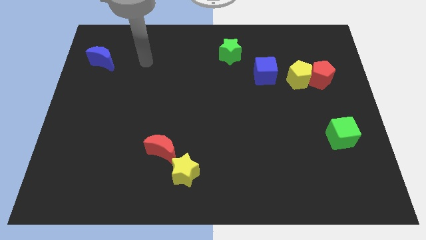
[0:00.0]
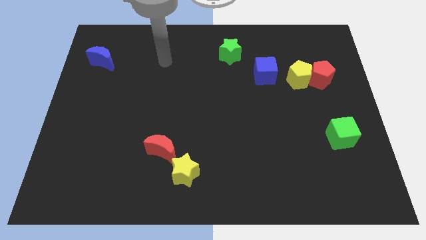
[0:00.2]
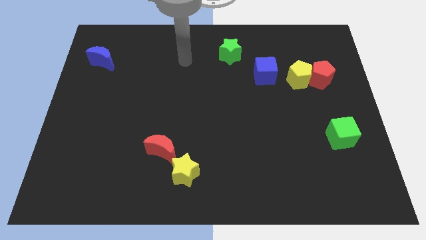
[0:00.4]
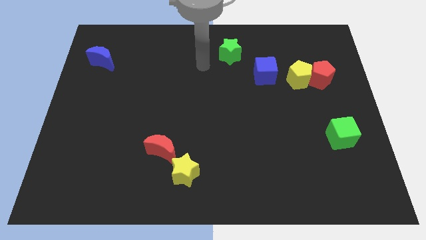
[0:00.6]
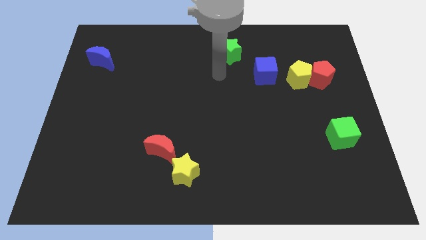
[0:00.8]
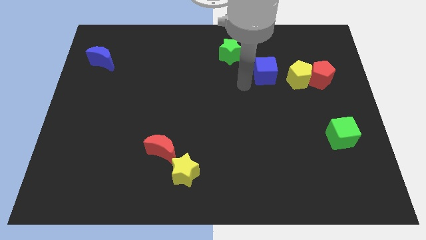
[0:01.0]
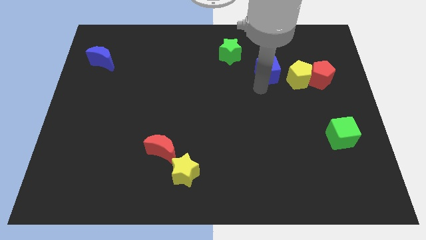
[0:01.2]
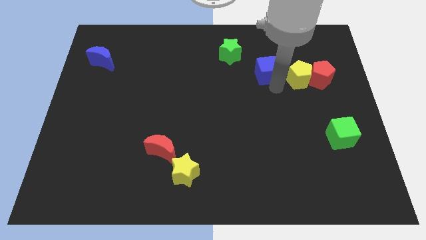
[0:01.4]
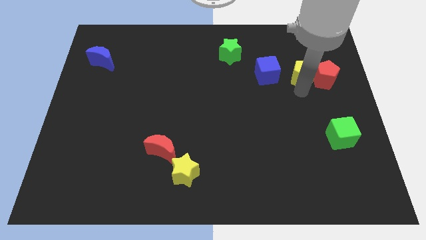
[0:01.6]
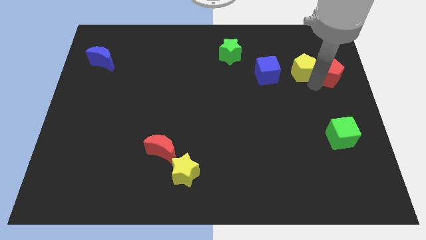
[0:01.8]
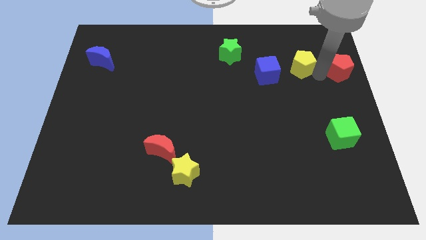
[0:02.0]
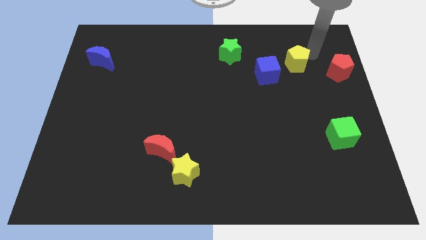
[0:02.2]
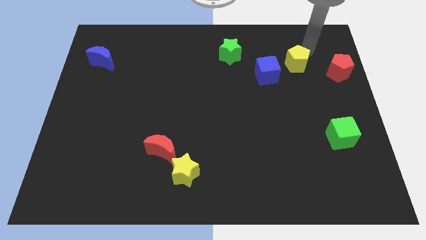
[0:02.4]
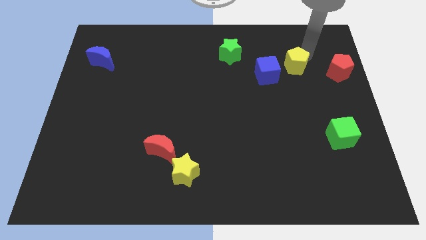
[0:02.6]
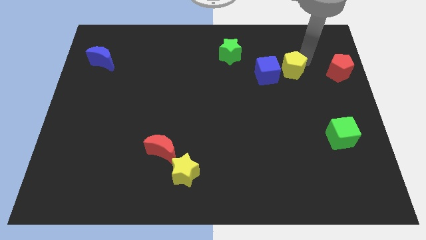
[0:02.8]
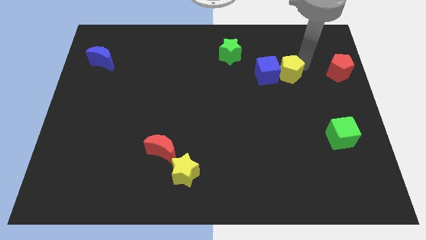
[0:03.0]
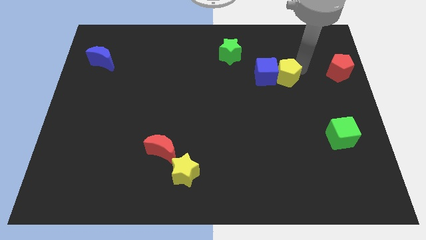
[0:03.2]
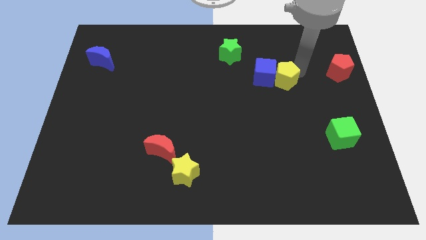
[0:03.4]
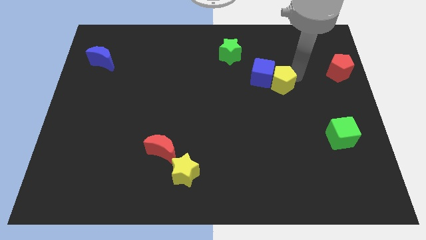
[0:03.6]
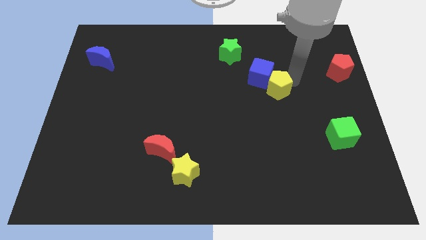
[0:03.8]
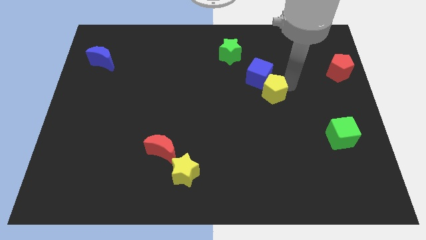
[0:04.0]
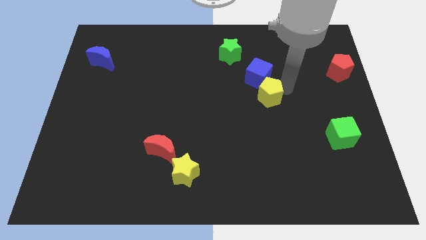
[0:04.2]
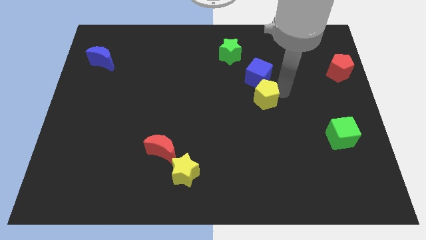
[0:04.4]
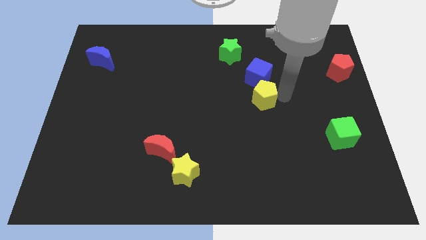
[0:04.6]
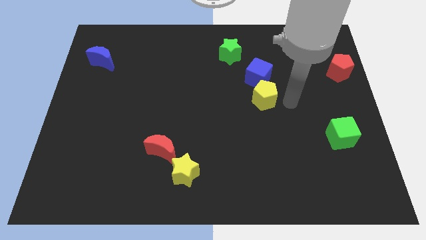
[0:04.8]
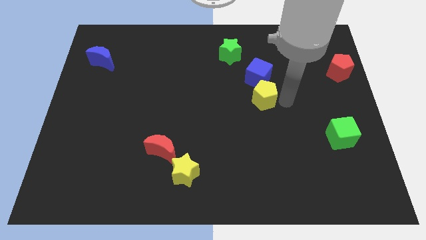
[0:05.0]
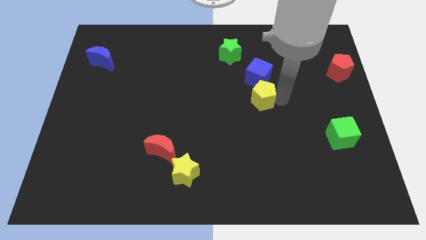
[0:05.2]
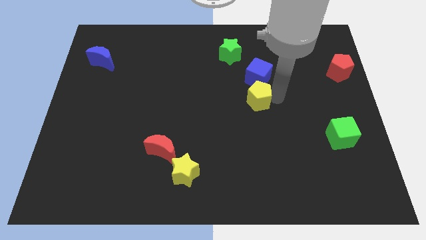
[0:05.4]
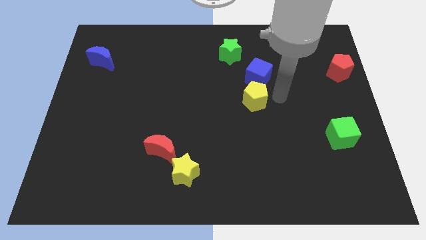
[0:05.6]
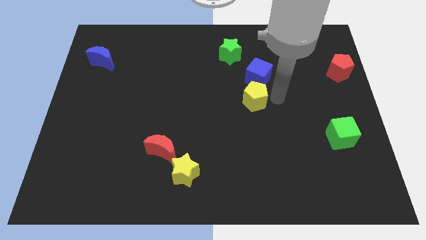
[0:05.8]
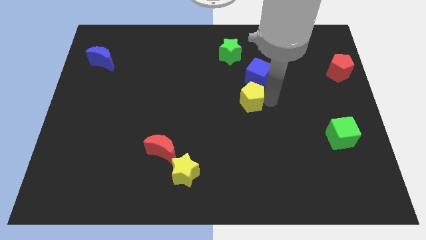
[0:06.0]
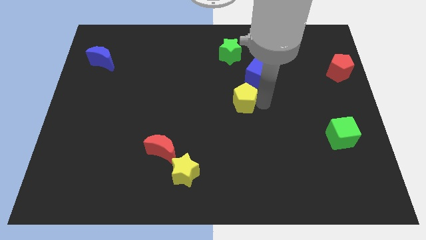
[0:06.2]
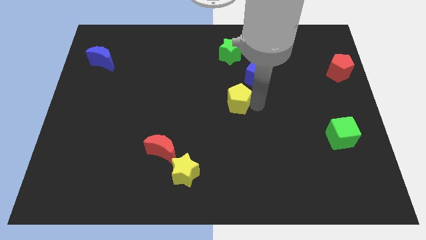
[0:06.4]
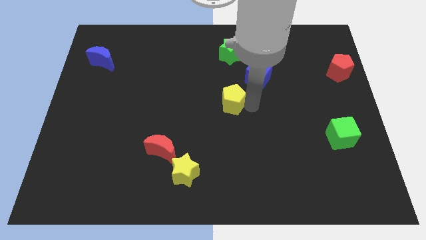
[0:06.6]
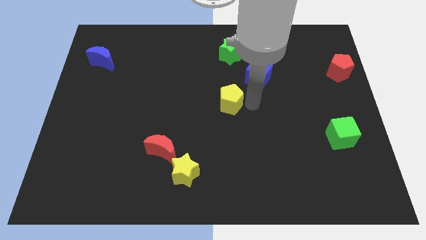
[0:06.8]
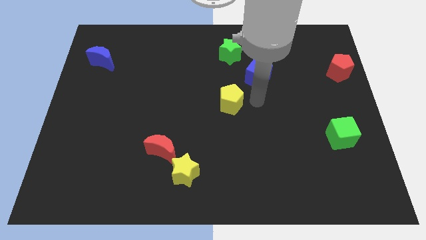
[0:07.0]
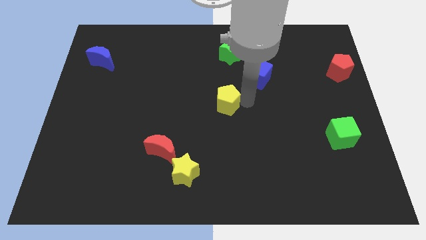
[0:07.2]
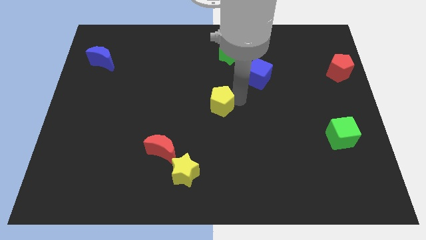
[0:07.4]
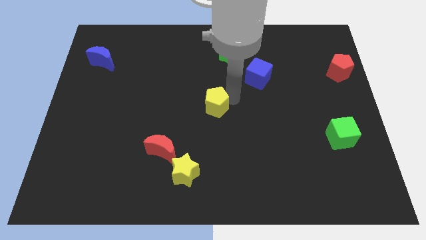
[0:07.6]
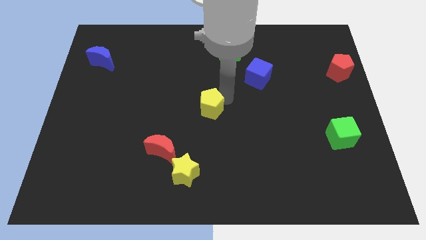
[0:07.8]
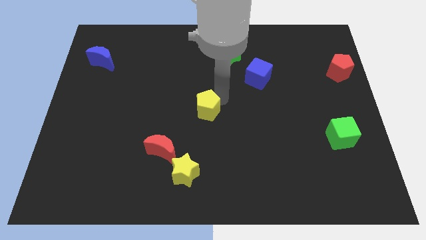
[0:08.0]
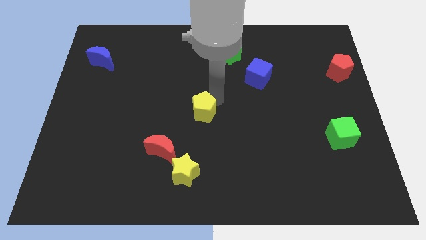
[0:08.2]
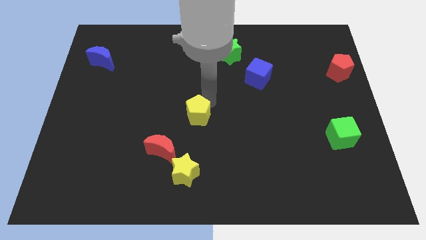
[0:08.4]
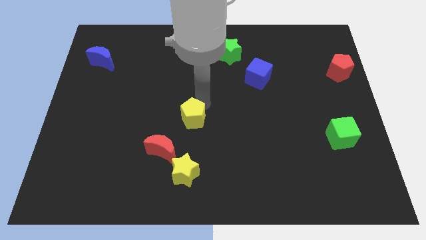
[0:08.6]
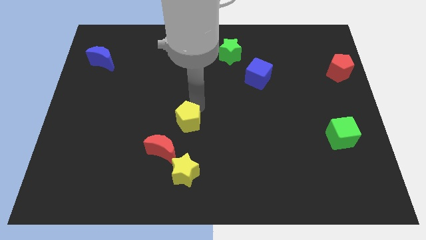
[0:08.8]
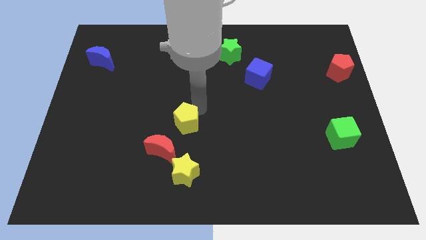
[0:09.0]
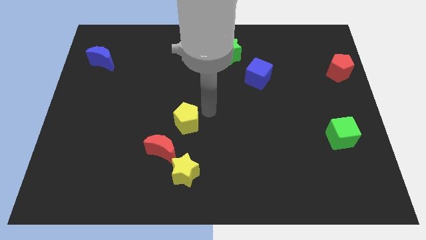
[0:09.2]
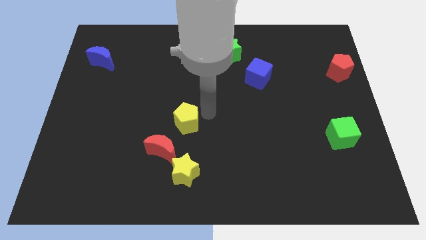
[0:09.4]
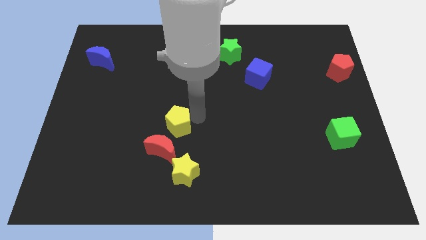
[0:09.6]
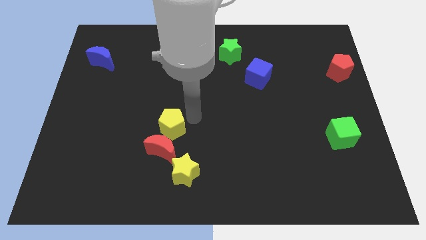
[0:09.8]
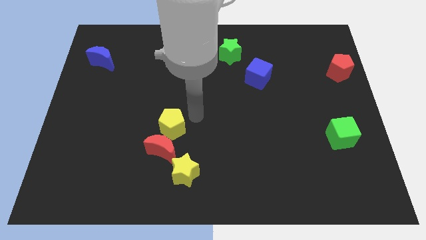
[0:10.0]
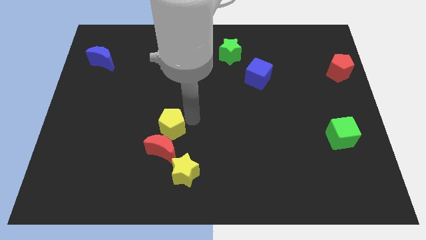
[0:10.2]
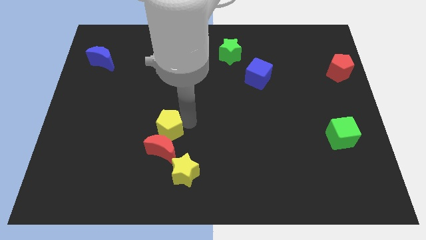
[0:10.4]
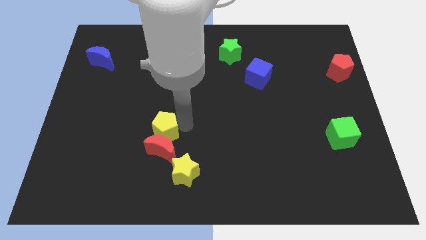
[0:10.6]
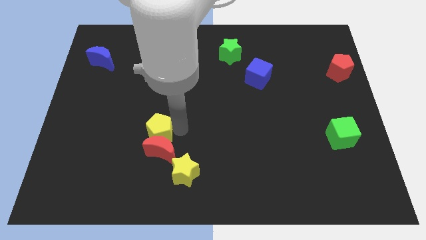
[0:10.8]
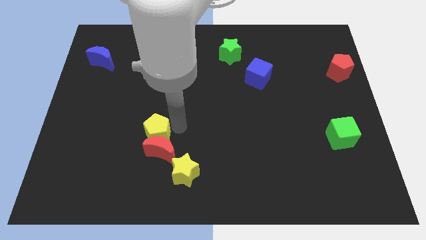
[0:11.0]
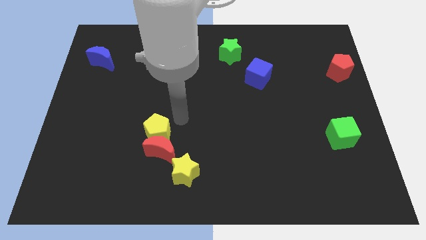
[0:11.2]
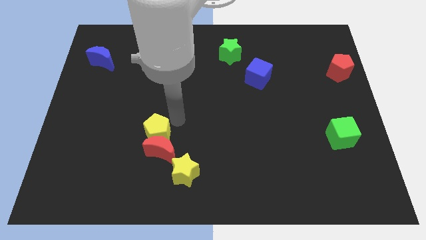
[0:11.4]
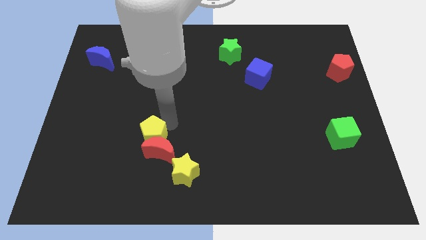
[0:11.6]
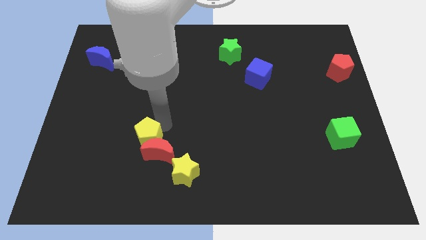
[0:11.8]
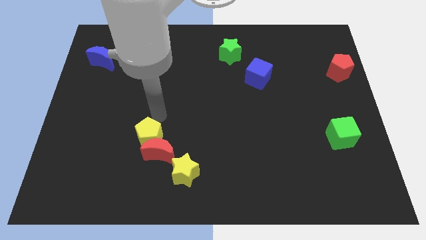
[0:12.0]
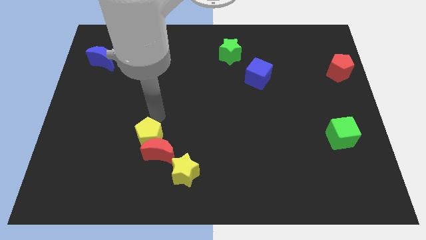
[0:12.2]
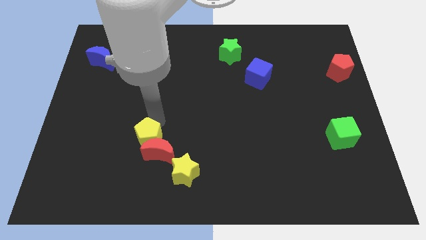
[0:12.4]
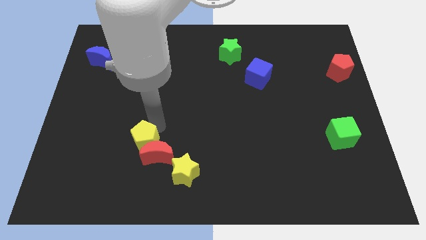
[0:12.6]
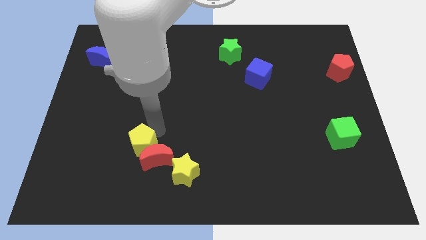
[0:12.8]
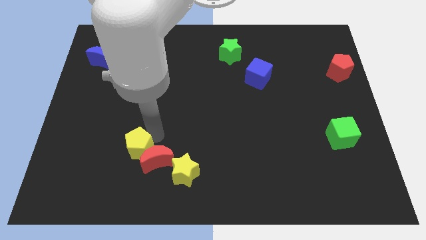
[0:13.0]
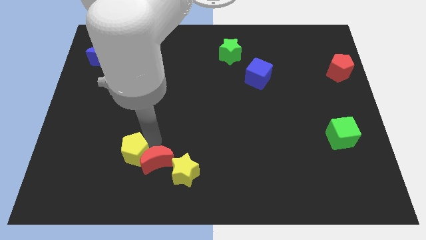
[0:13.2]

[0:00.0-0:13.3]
put the yellow pentagon to the left of the yellow star
